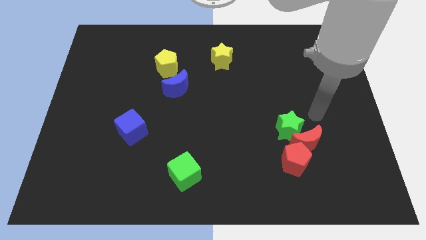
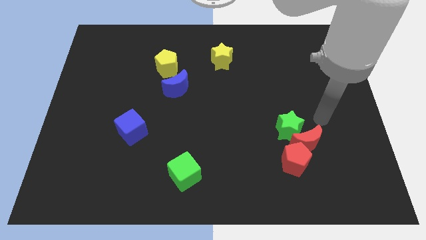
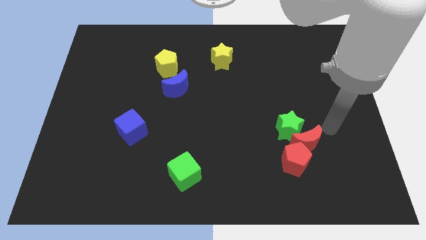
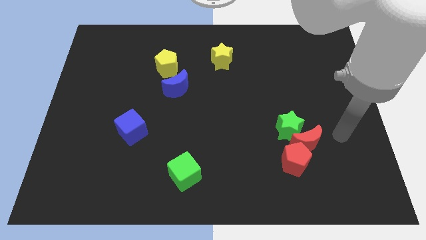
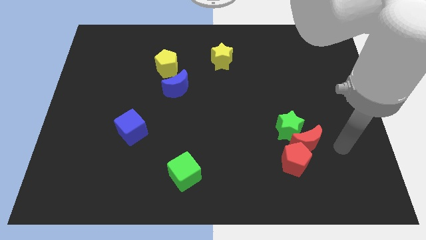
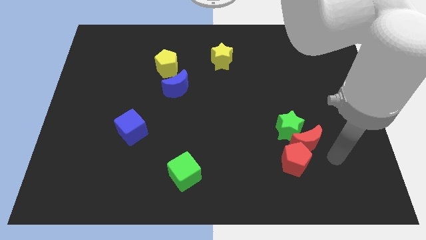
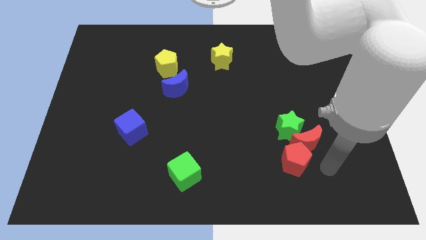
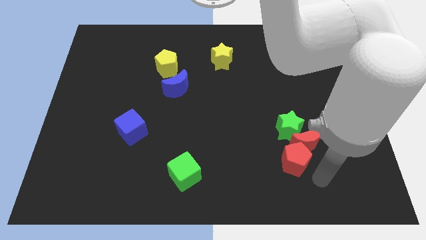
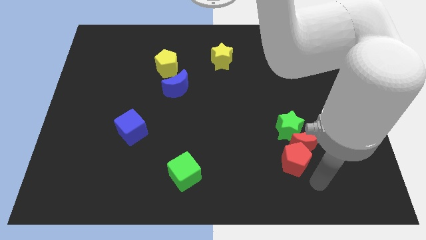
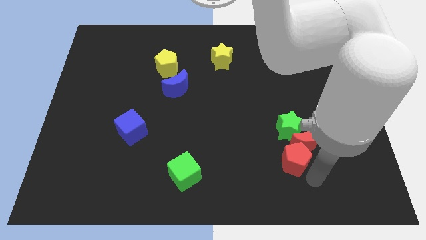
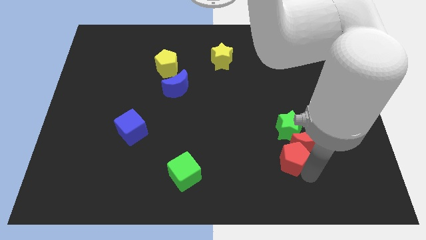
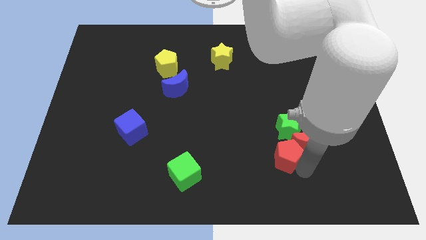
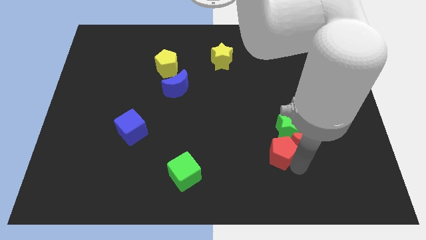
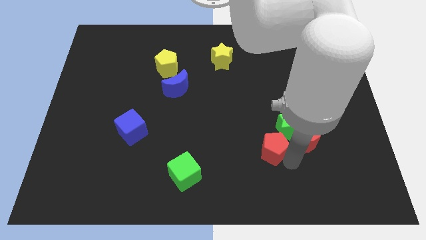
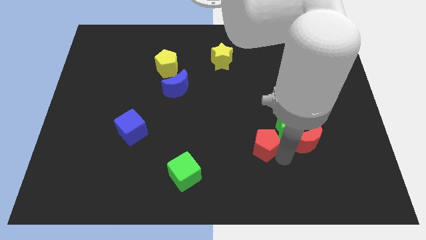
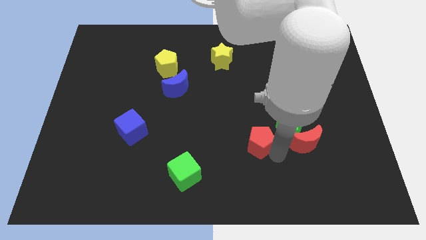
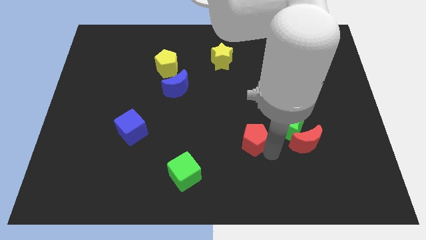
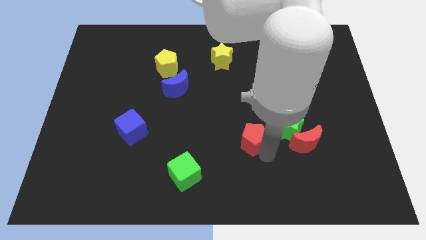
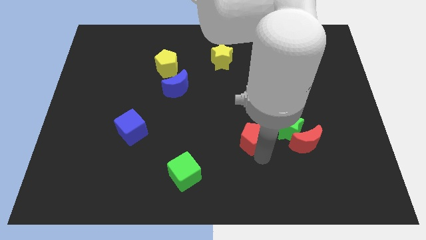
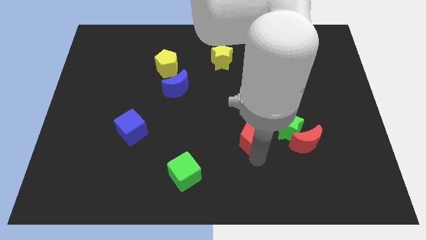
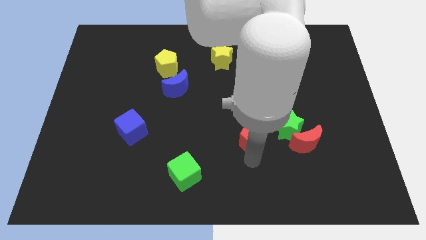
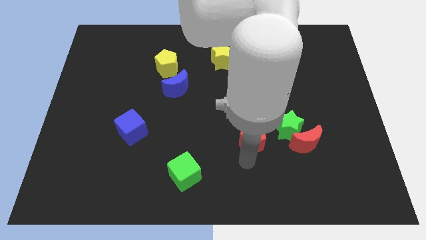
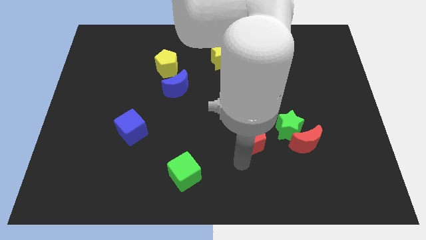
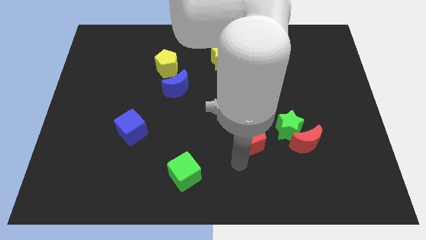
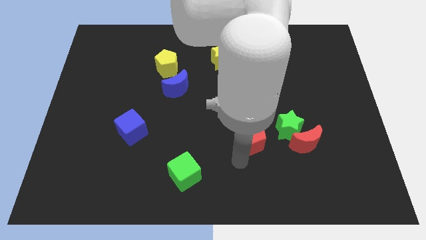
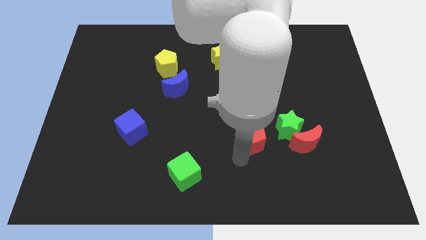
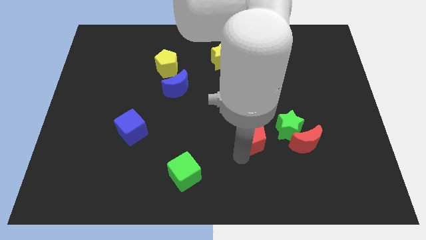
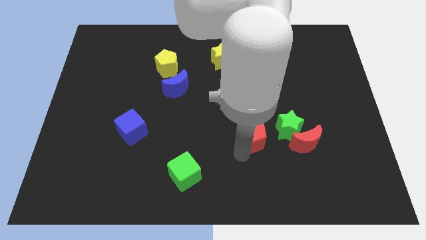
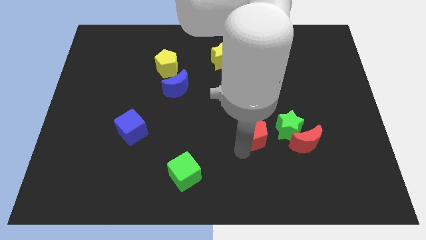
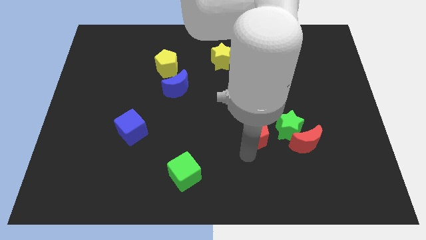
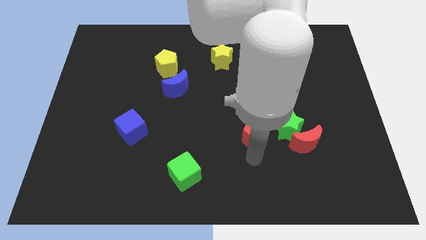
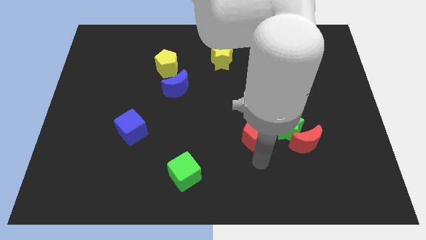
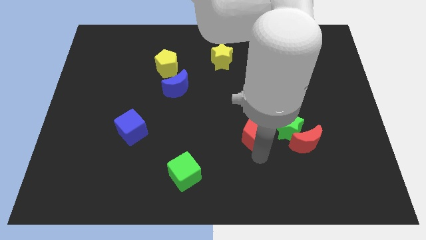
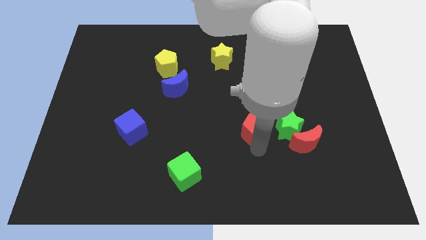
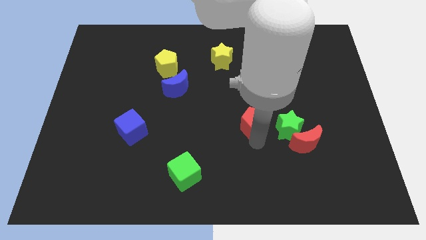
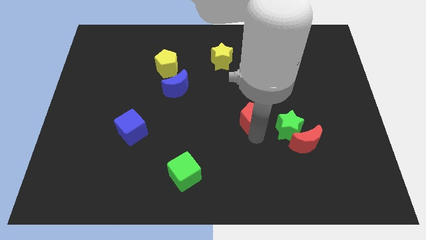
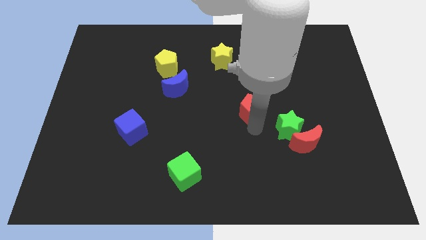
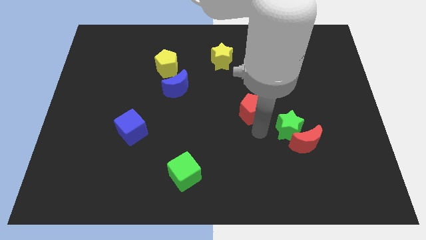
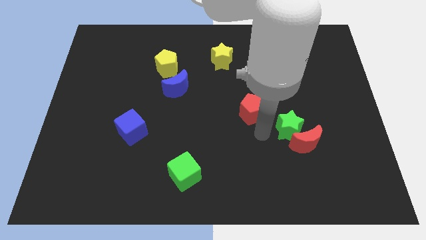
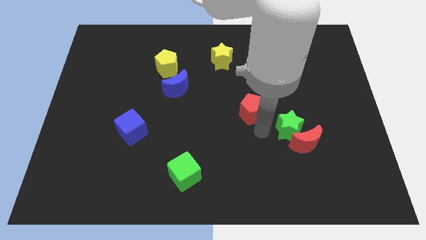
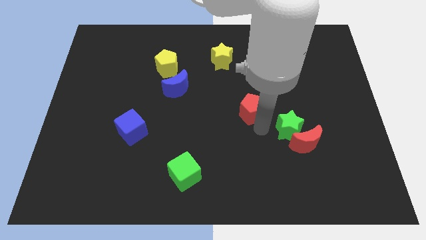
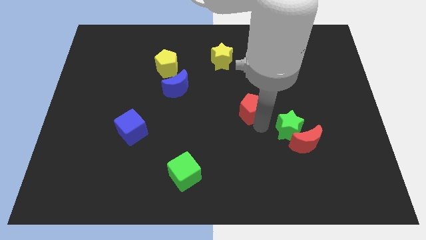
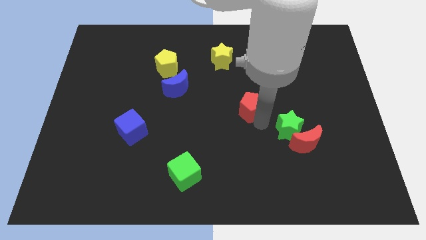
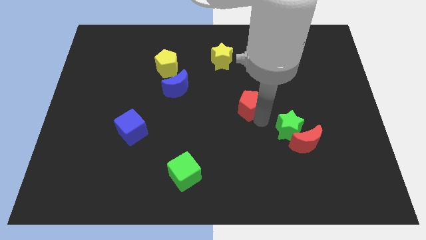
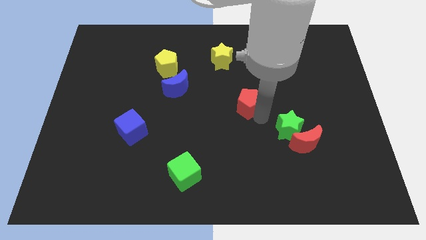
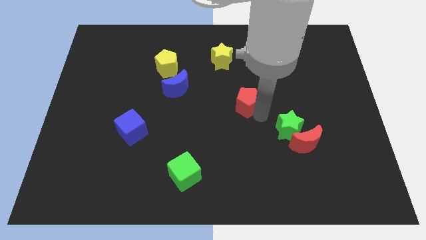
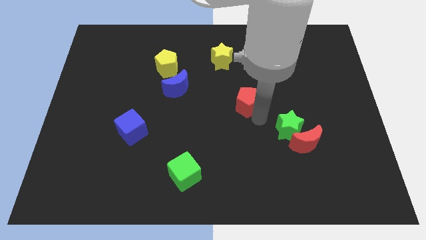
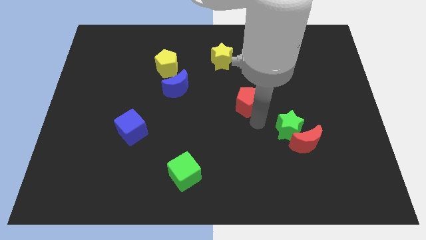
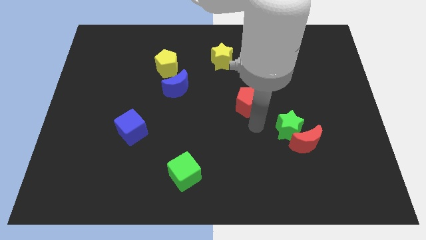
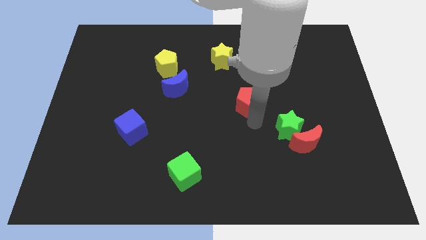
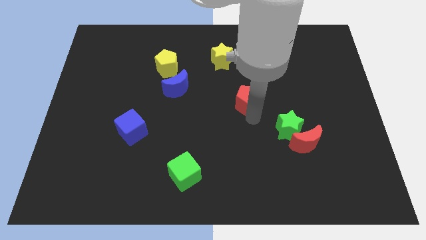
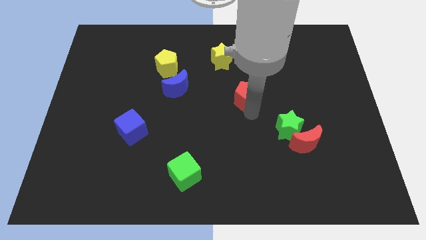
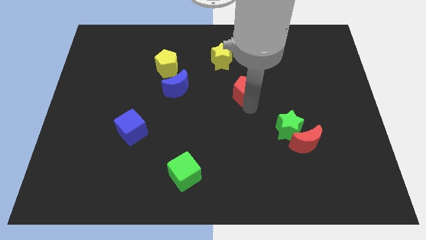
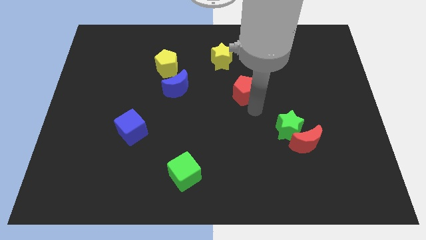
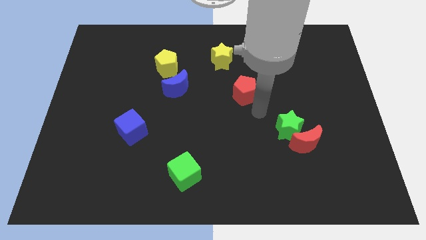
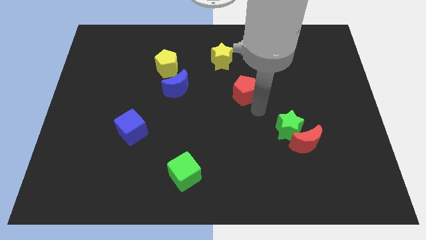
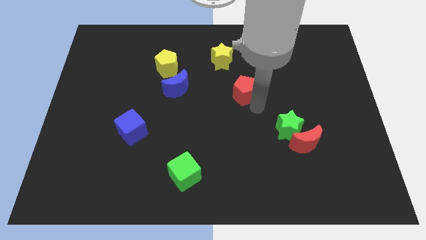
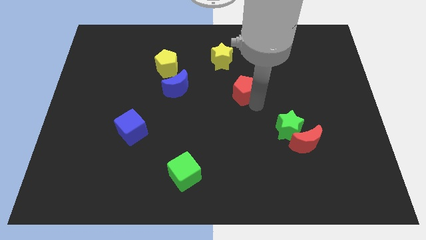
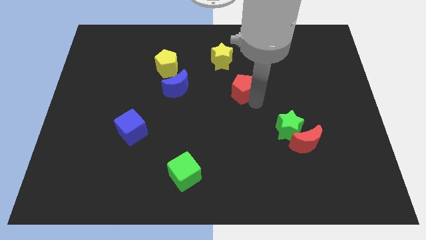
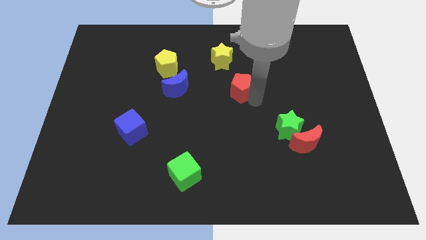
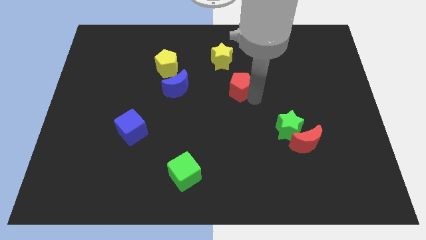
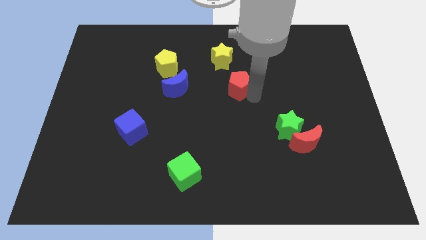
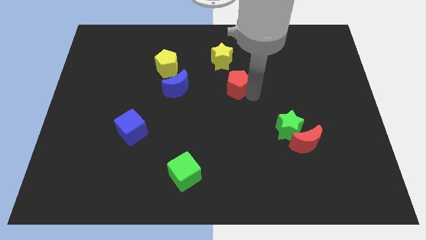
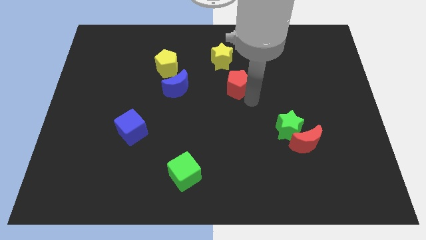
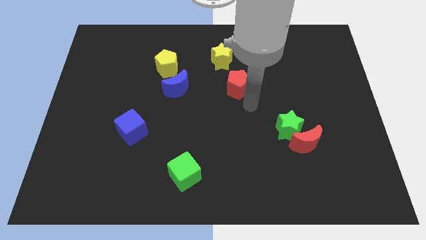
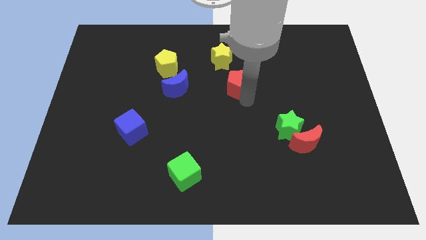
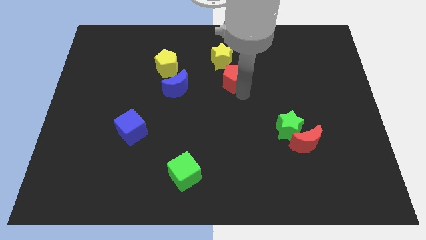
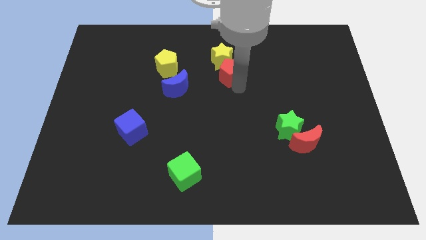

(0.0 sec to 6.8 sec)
put the red pentagon to the yellow star

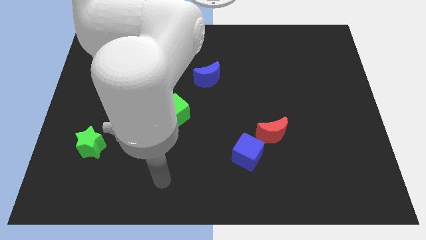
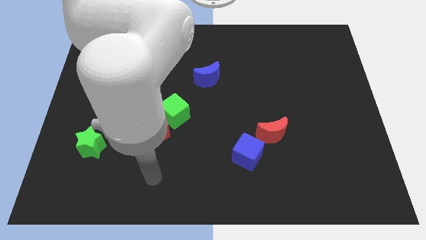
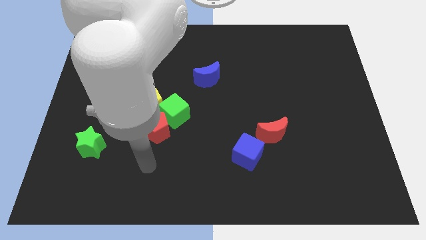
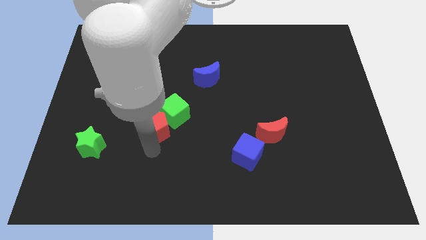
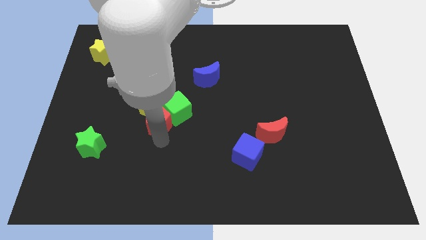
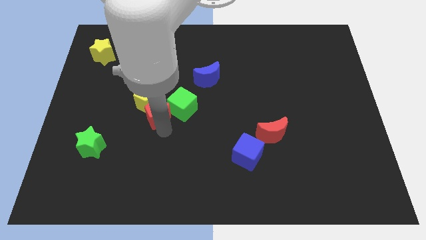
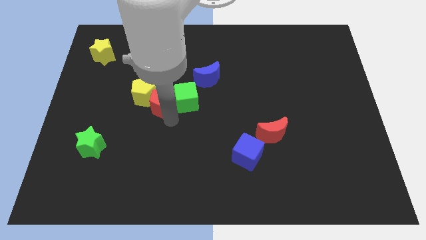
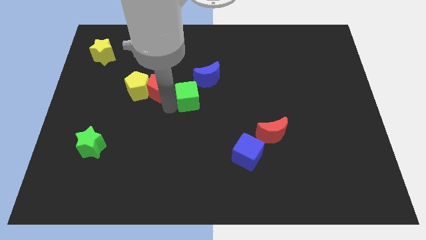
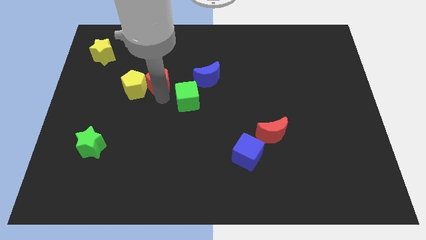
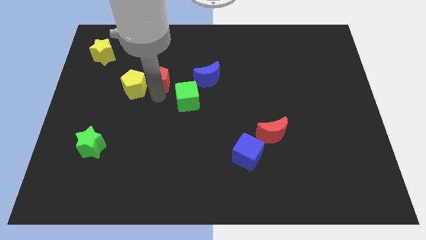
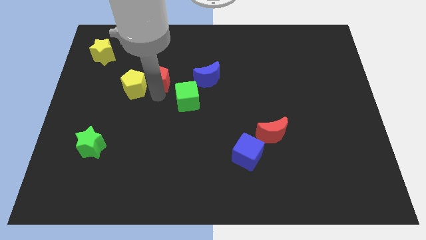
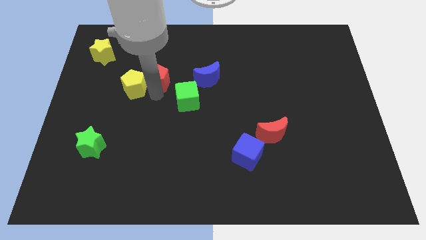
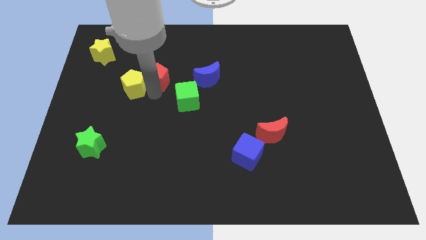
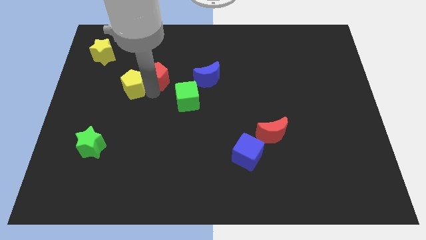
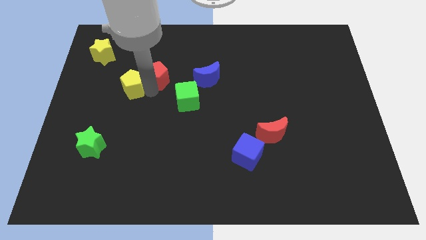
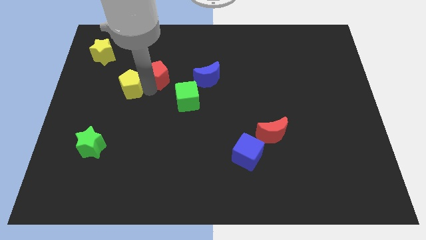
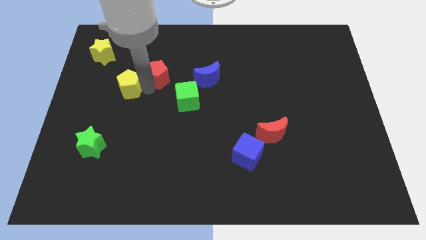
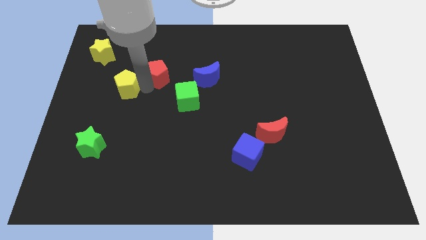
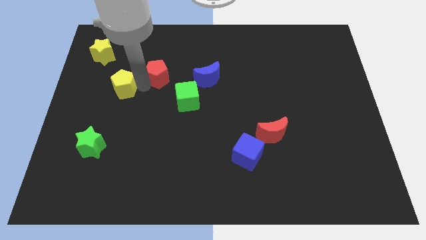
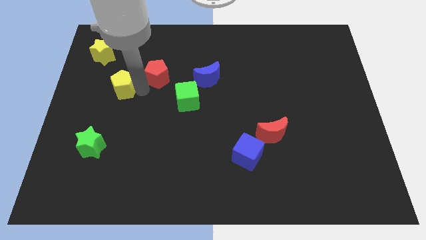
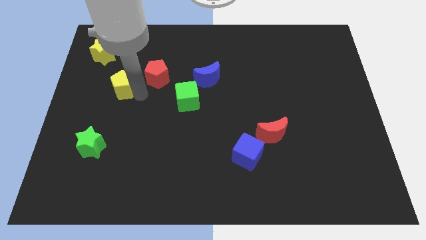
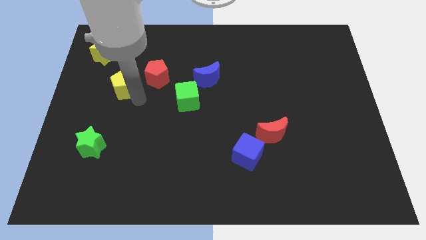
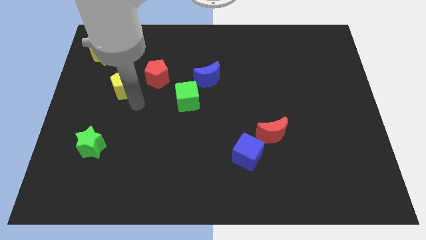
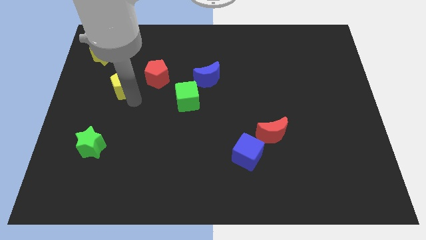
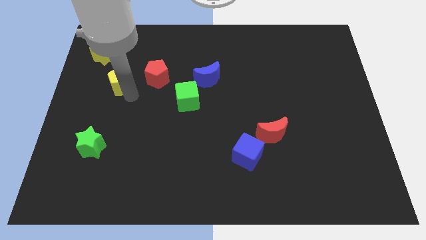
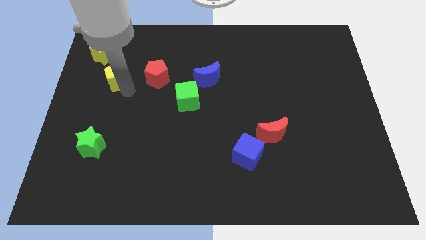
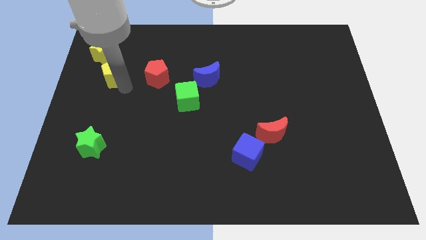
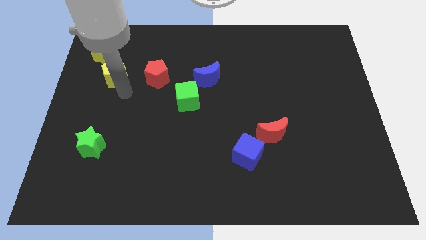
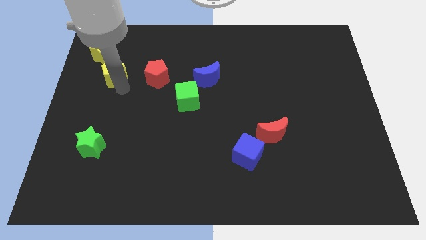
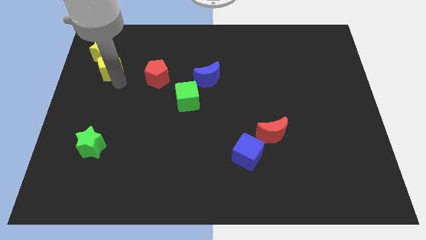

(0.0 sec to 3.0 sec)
push the yellow pentagon close to the yellow star
